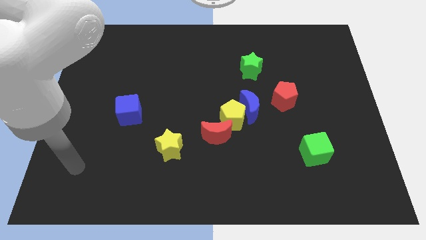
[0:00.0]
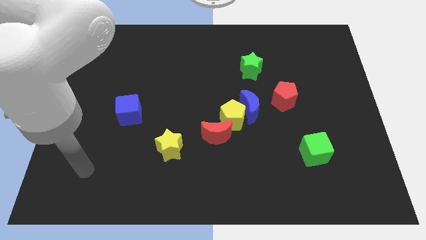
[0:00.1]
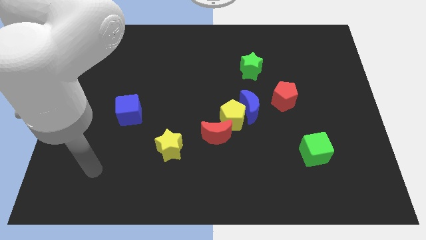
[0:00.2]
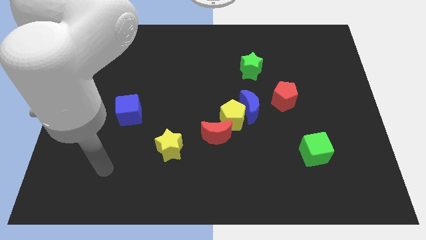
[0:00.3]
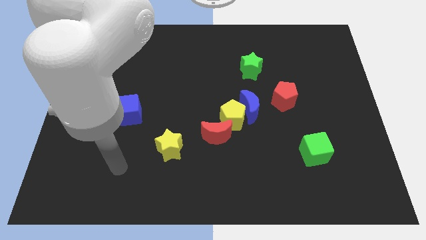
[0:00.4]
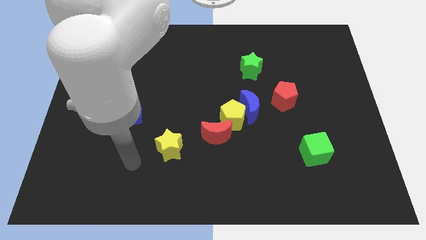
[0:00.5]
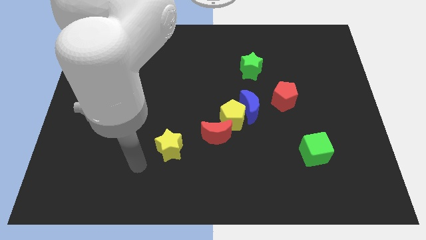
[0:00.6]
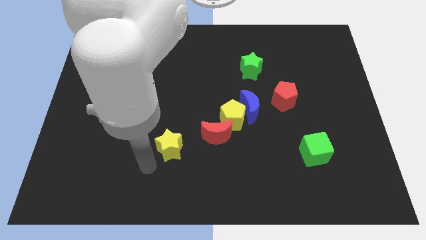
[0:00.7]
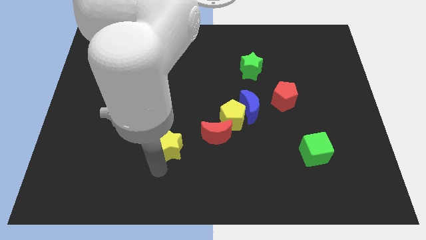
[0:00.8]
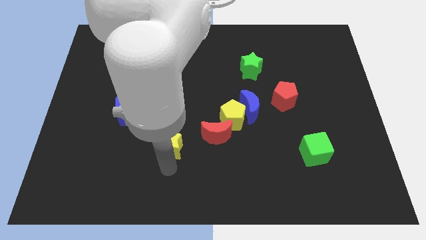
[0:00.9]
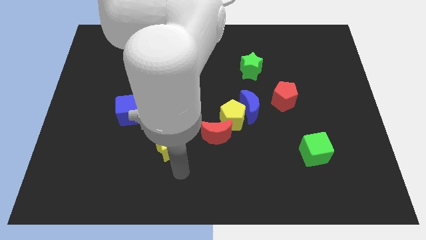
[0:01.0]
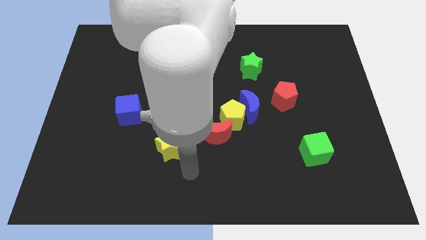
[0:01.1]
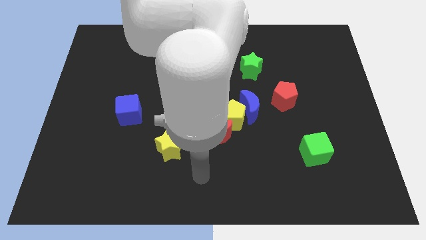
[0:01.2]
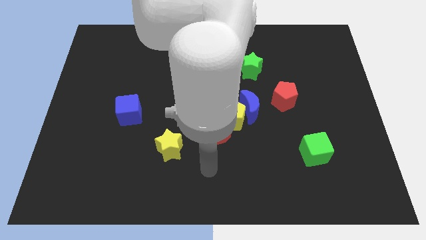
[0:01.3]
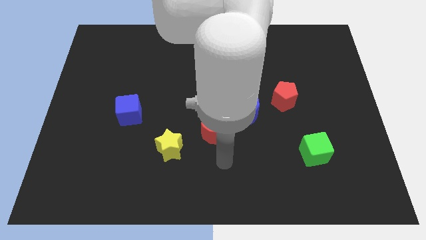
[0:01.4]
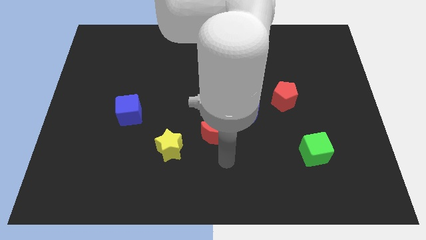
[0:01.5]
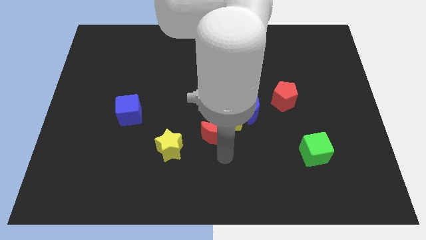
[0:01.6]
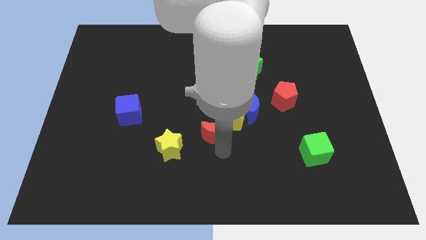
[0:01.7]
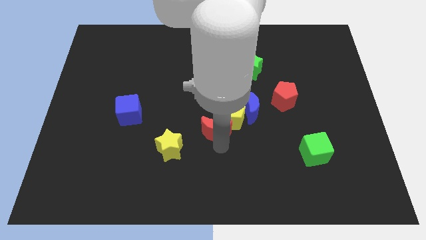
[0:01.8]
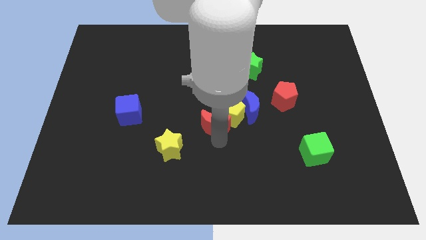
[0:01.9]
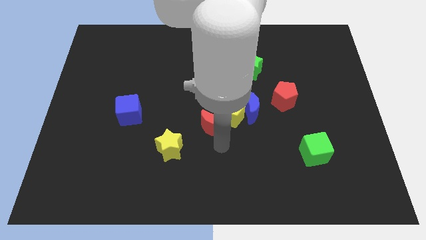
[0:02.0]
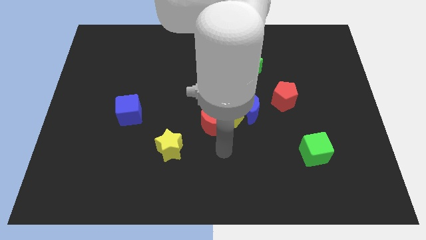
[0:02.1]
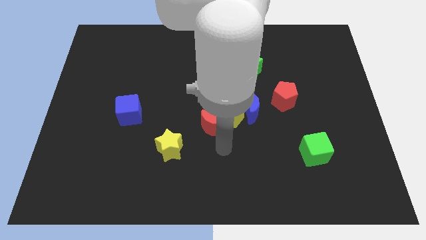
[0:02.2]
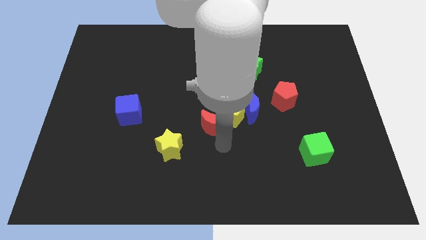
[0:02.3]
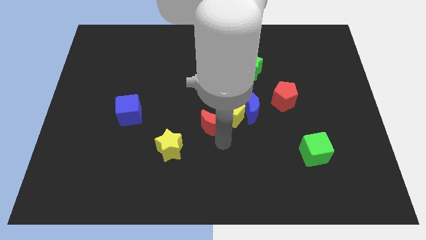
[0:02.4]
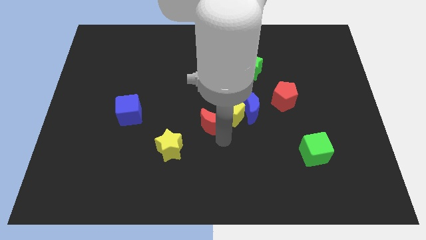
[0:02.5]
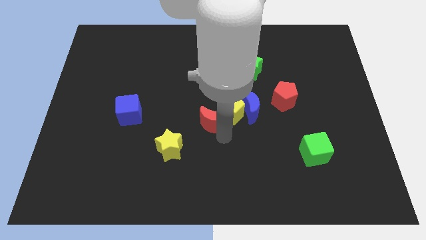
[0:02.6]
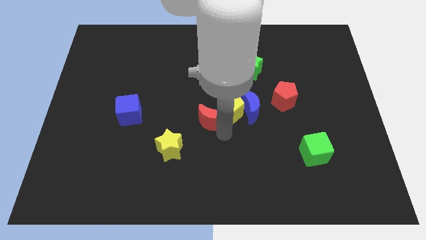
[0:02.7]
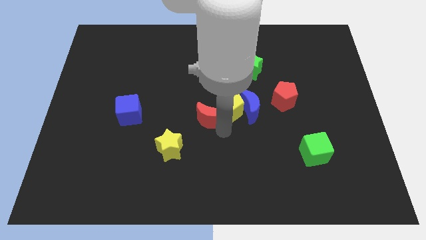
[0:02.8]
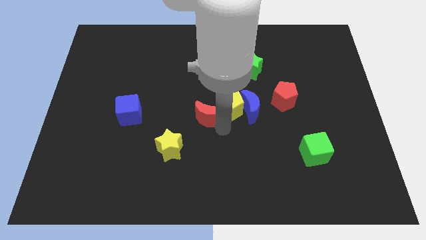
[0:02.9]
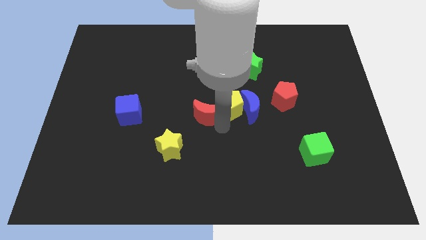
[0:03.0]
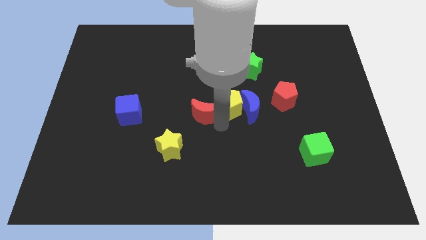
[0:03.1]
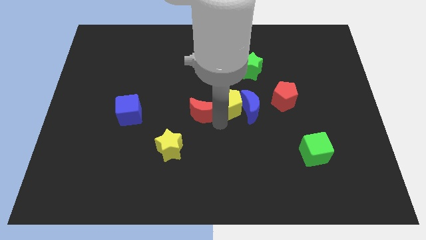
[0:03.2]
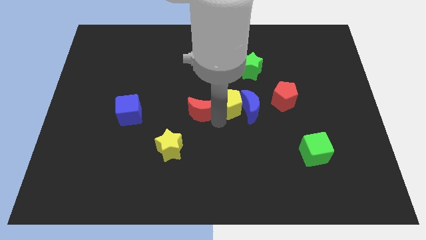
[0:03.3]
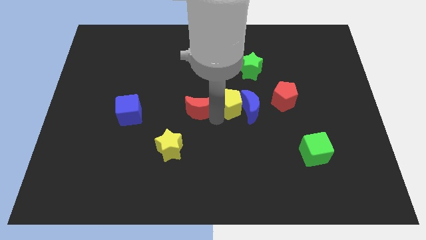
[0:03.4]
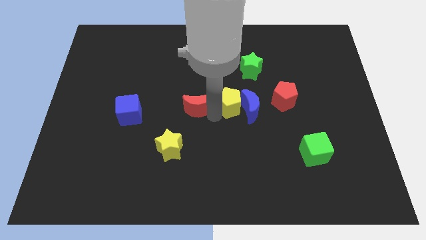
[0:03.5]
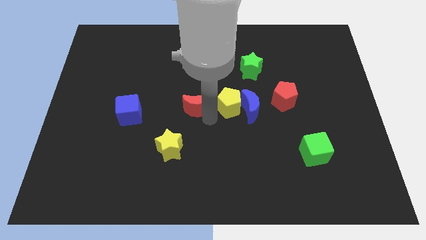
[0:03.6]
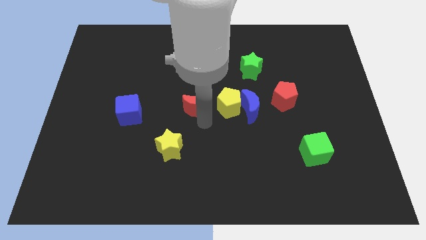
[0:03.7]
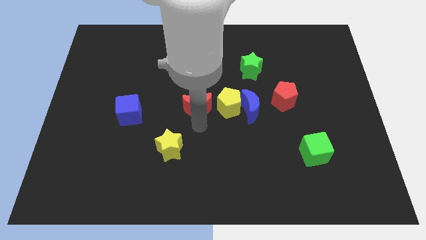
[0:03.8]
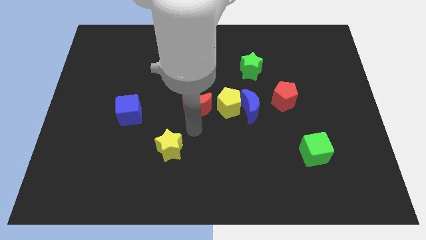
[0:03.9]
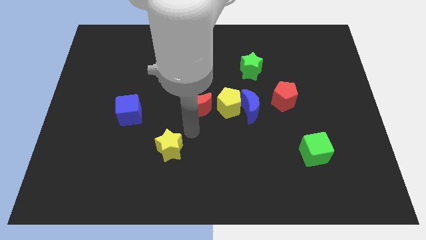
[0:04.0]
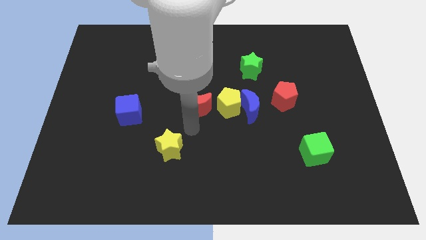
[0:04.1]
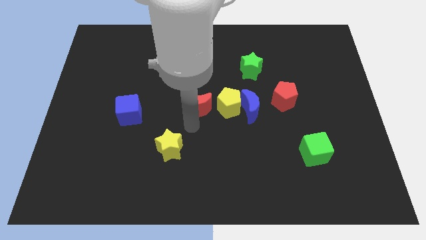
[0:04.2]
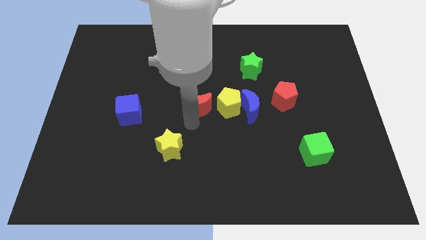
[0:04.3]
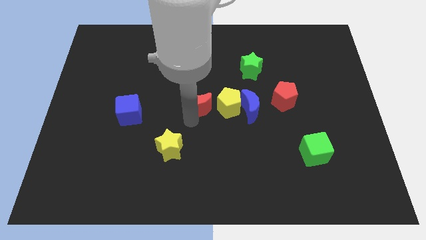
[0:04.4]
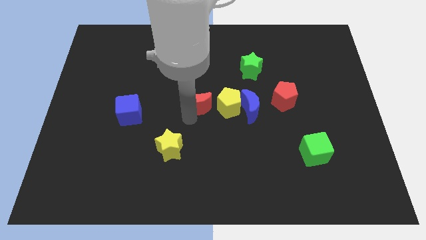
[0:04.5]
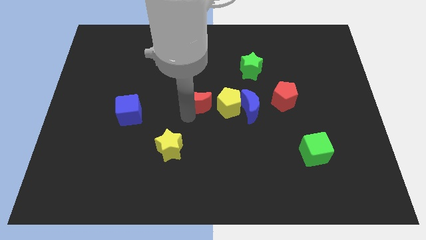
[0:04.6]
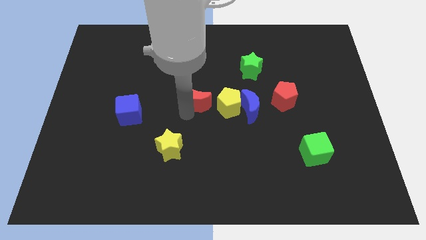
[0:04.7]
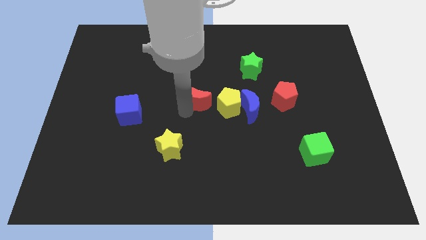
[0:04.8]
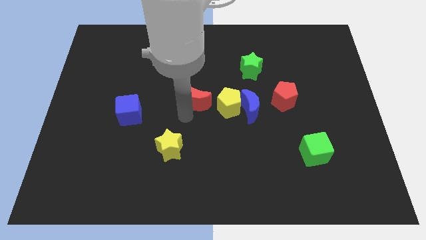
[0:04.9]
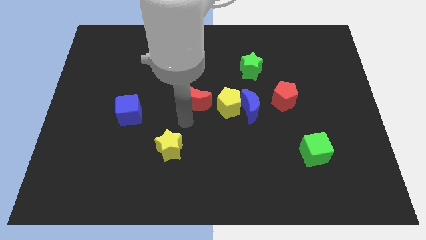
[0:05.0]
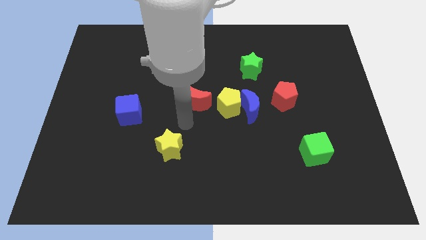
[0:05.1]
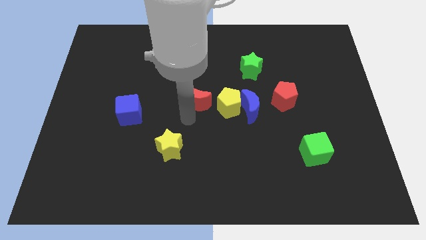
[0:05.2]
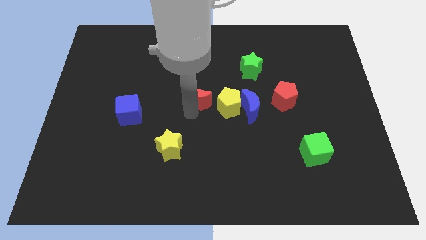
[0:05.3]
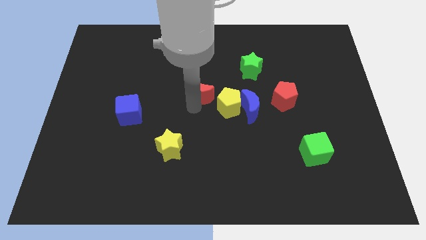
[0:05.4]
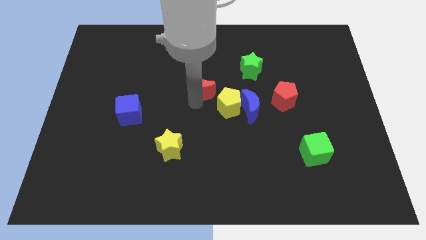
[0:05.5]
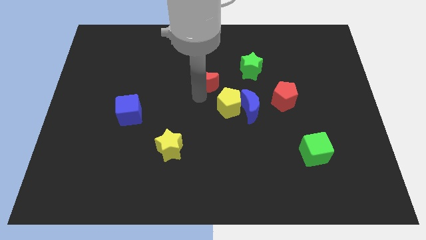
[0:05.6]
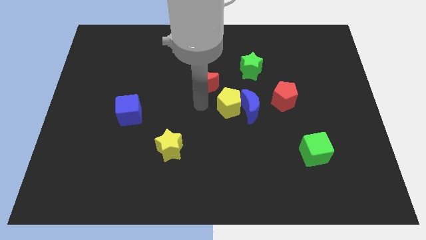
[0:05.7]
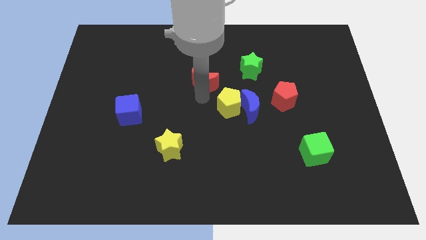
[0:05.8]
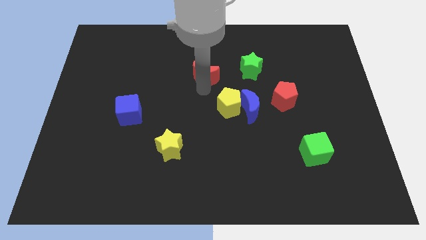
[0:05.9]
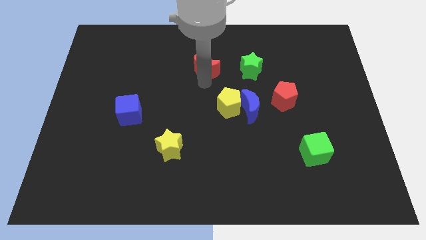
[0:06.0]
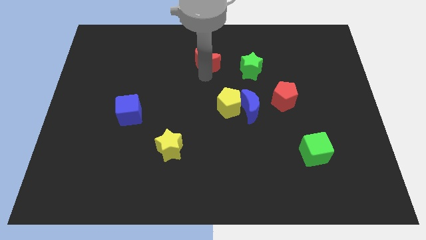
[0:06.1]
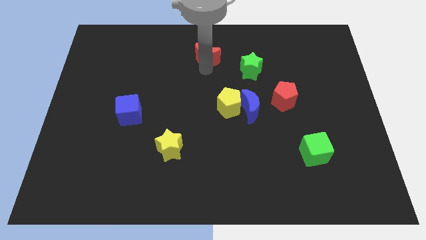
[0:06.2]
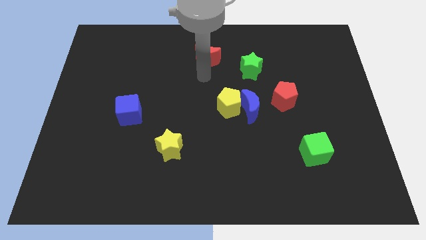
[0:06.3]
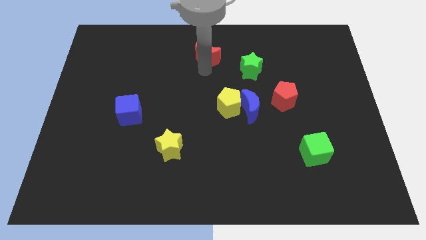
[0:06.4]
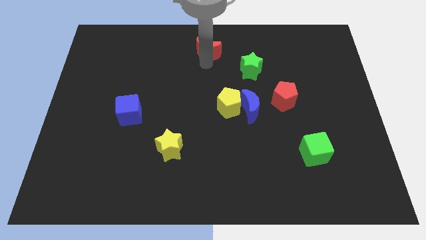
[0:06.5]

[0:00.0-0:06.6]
slide the red moon to the towards your base
